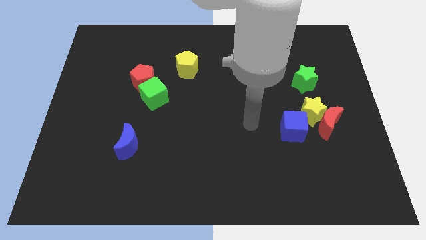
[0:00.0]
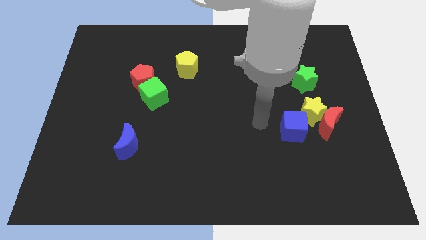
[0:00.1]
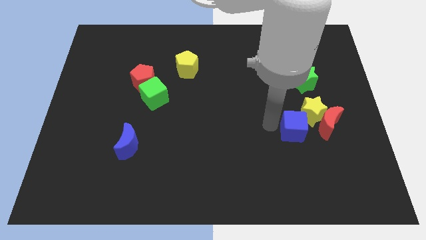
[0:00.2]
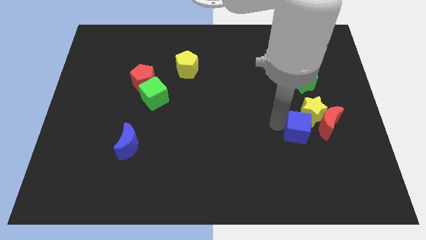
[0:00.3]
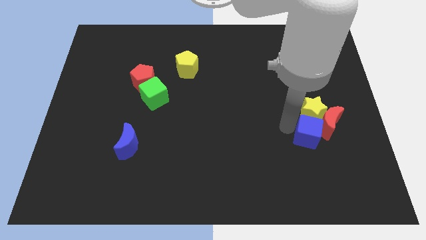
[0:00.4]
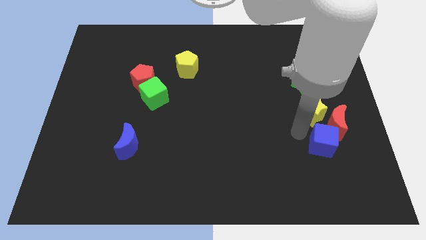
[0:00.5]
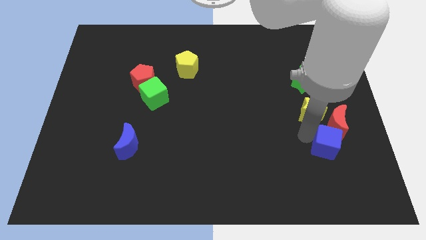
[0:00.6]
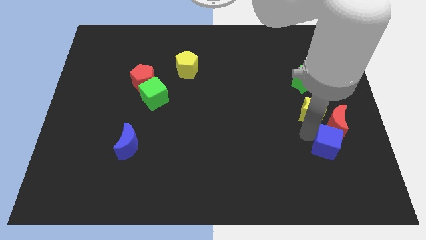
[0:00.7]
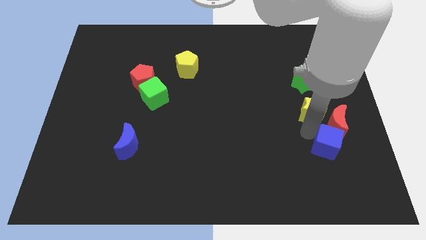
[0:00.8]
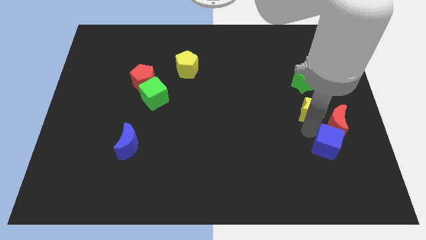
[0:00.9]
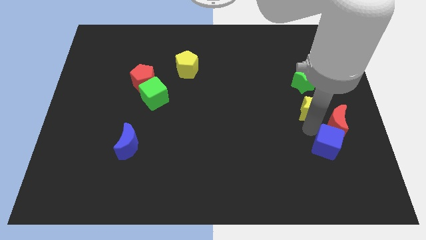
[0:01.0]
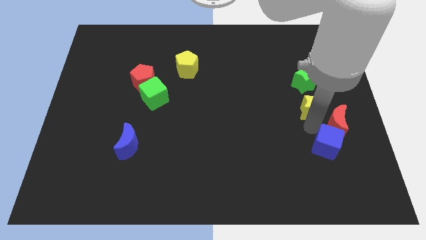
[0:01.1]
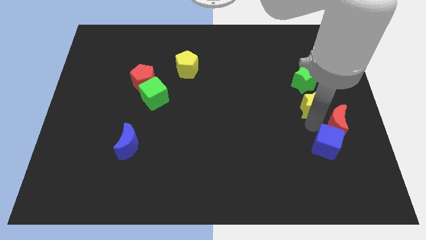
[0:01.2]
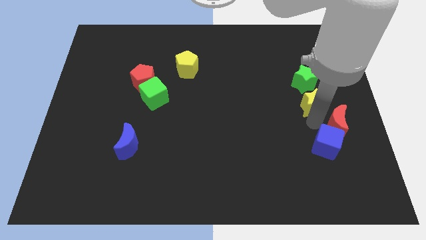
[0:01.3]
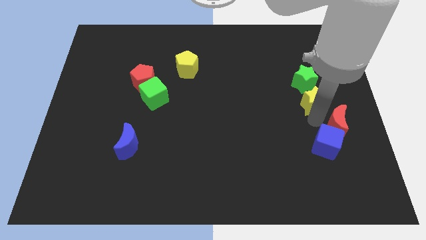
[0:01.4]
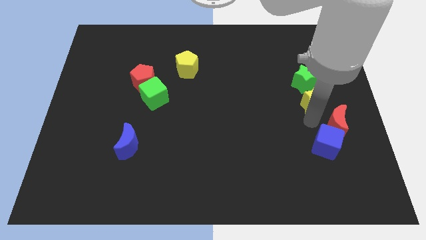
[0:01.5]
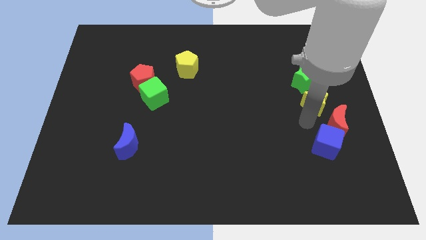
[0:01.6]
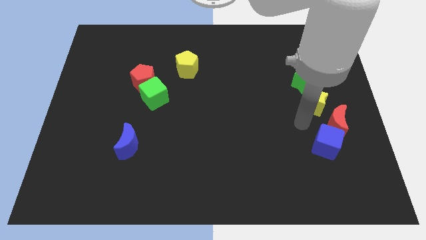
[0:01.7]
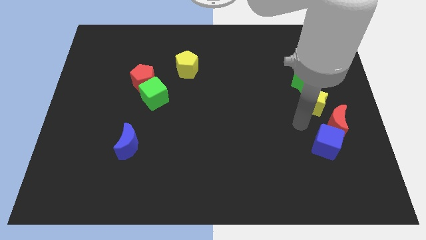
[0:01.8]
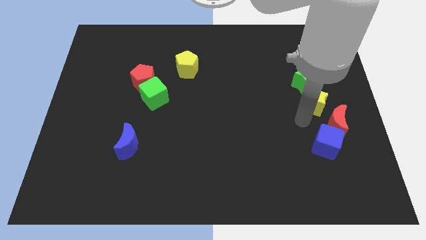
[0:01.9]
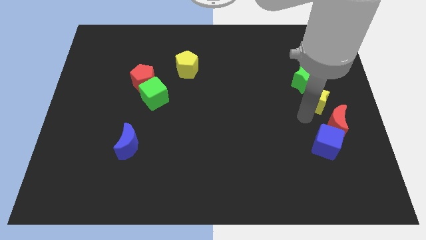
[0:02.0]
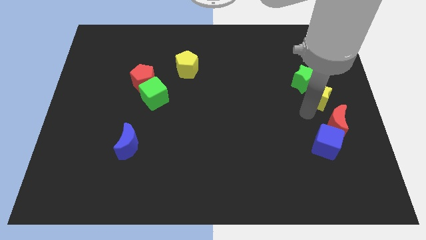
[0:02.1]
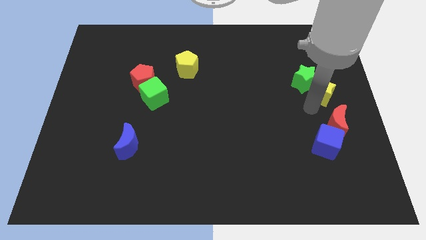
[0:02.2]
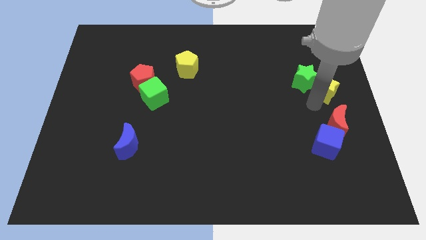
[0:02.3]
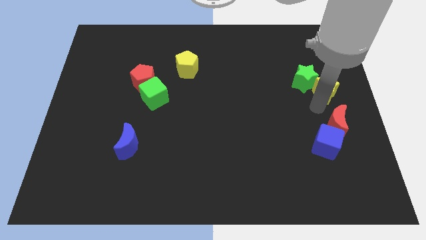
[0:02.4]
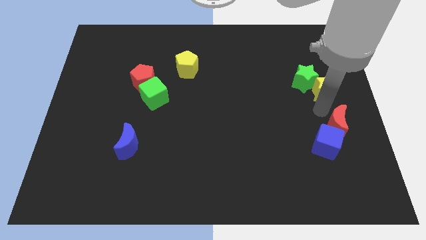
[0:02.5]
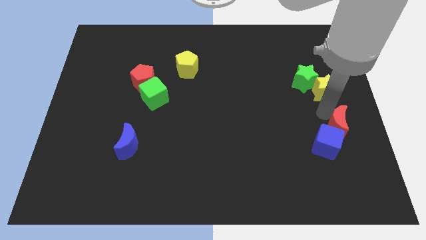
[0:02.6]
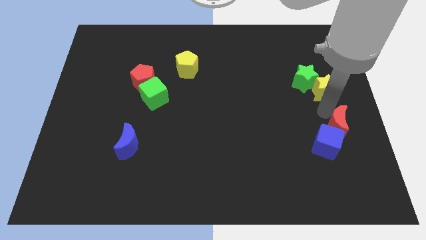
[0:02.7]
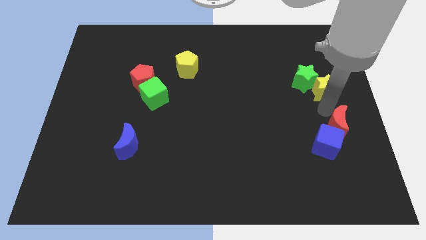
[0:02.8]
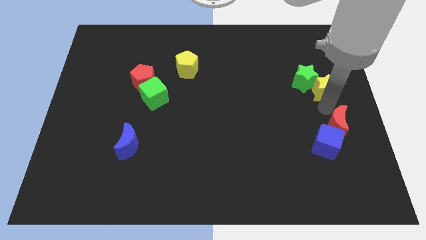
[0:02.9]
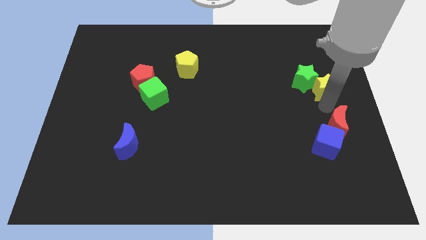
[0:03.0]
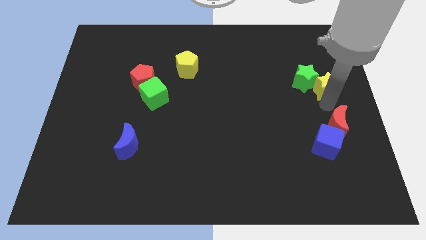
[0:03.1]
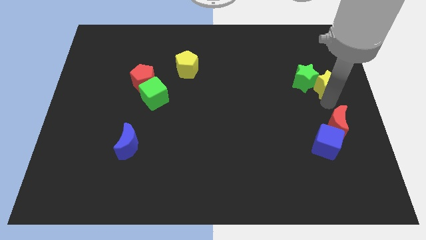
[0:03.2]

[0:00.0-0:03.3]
slide the yellow star up a little bit

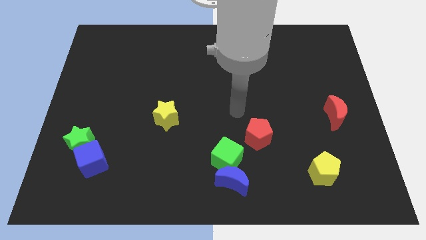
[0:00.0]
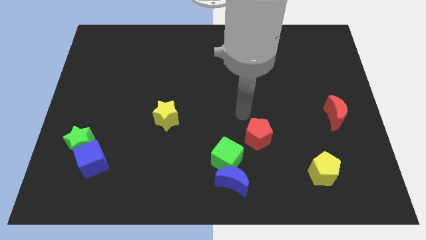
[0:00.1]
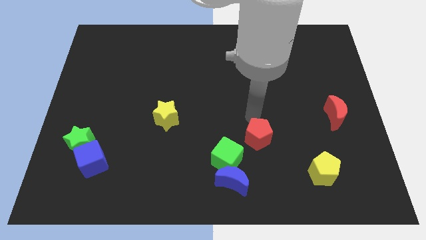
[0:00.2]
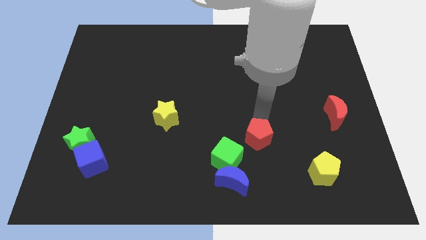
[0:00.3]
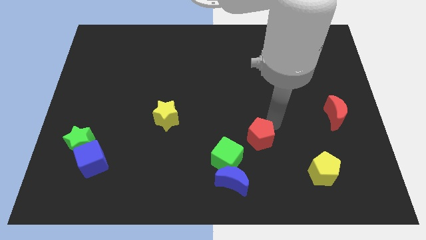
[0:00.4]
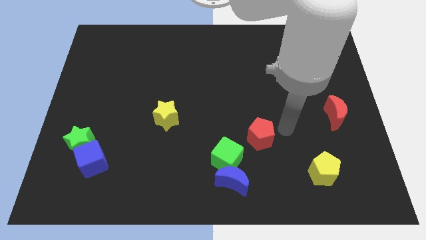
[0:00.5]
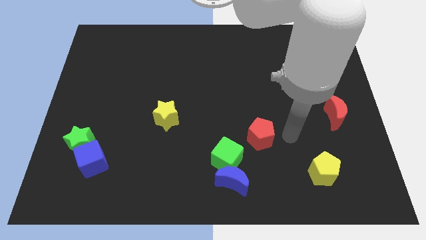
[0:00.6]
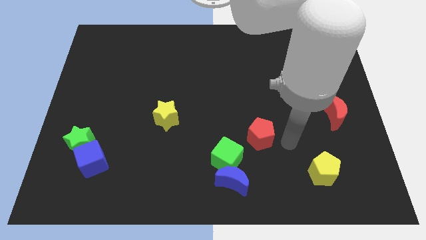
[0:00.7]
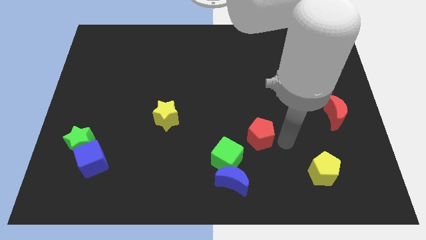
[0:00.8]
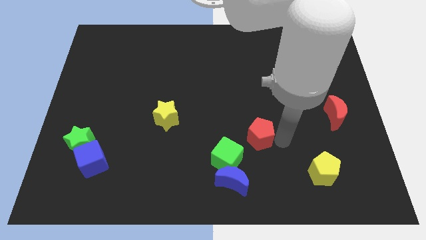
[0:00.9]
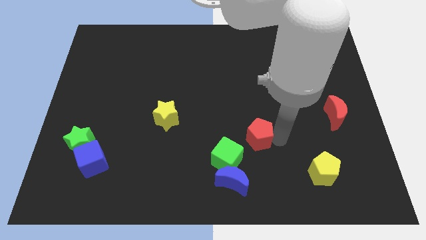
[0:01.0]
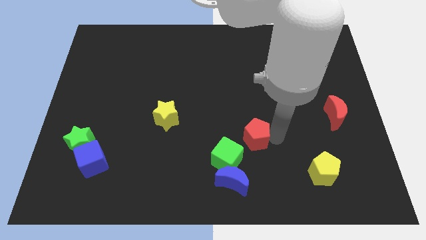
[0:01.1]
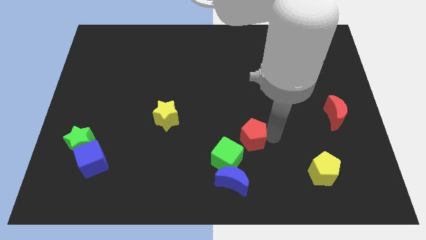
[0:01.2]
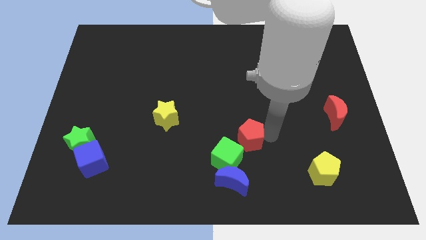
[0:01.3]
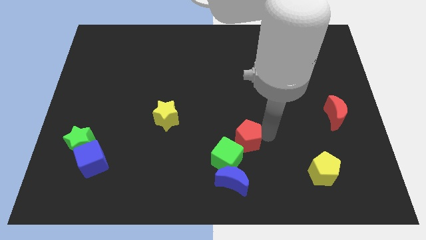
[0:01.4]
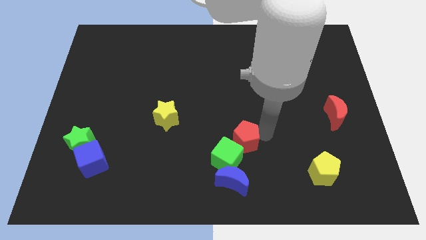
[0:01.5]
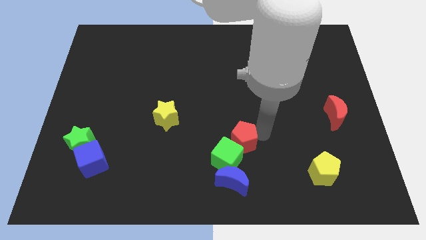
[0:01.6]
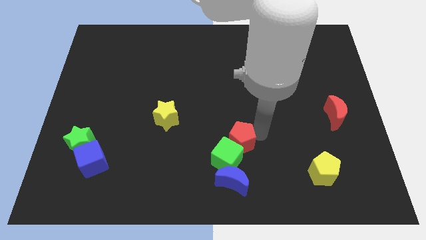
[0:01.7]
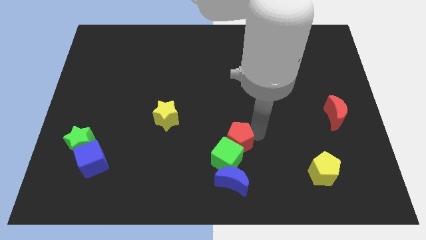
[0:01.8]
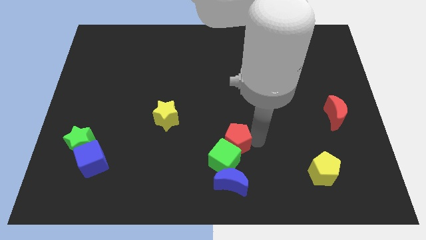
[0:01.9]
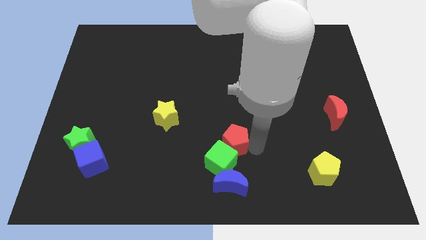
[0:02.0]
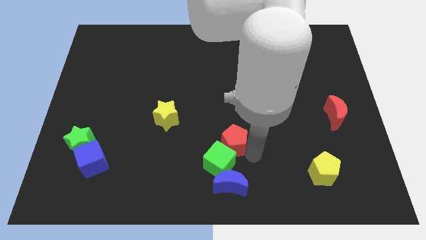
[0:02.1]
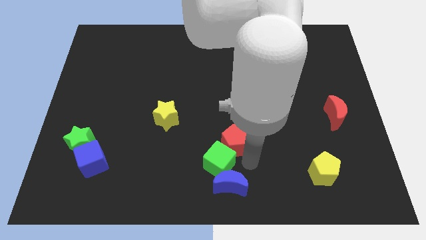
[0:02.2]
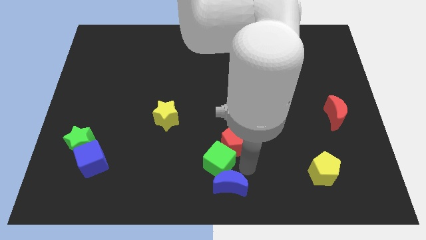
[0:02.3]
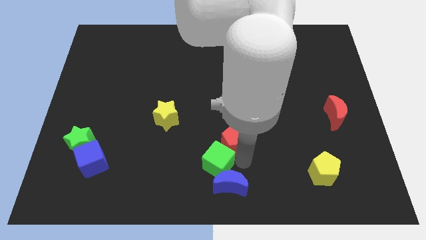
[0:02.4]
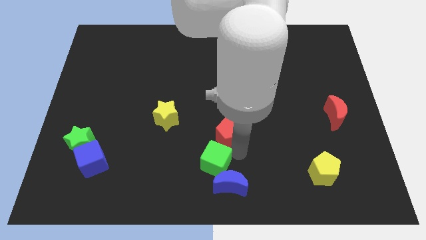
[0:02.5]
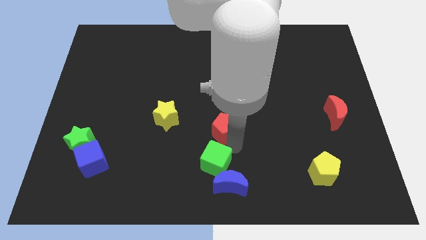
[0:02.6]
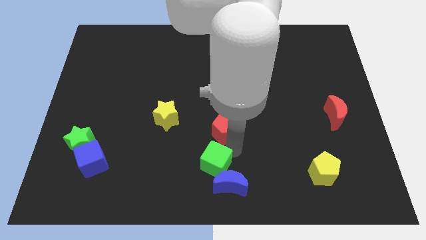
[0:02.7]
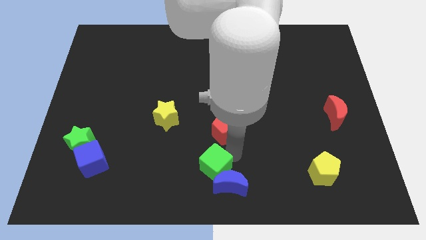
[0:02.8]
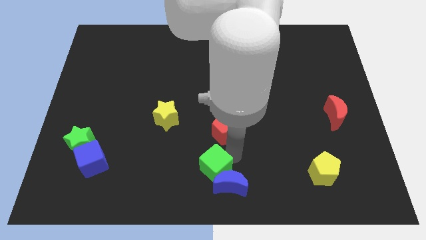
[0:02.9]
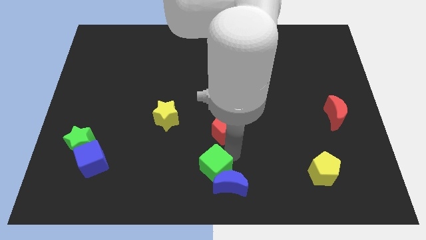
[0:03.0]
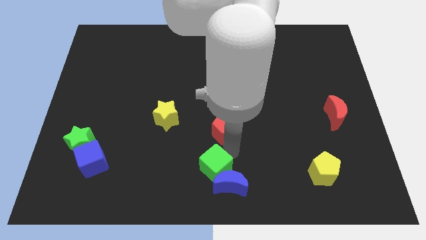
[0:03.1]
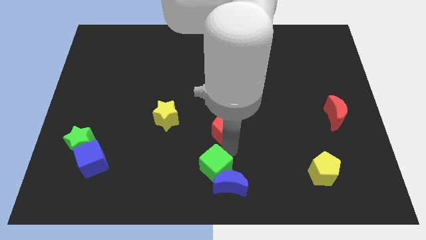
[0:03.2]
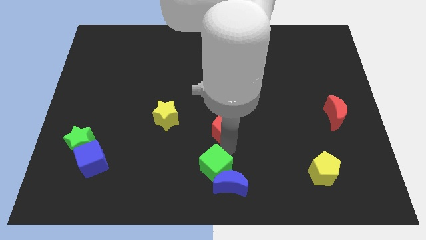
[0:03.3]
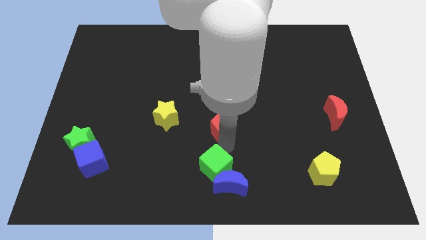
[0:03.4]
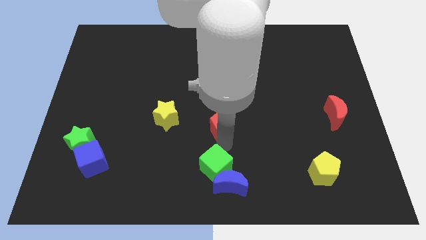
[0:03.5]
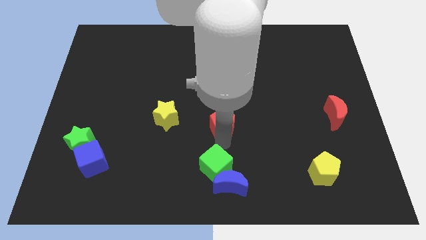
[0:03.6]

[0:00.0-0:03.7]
slide the red pentagon up and left diagonally a little

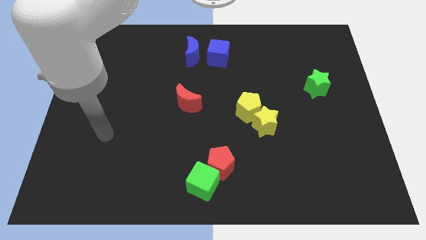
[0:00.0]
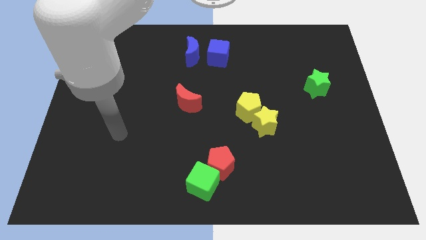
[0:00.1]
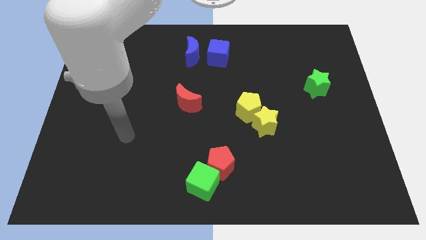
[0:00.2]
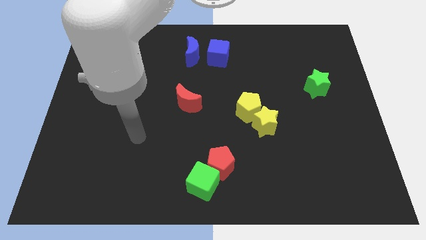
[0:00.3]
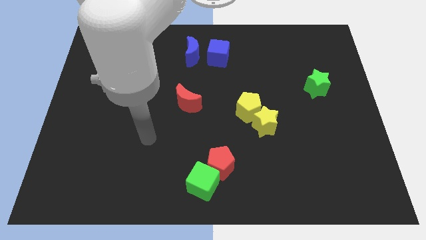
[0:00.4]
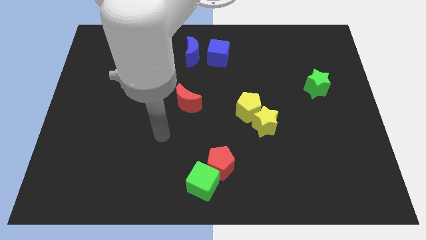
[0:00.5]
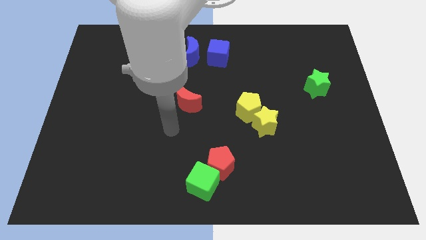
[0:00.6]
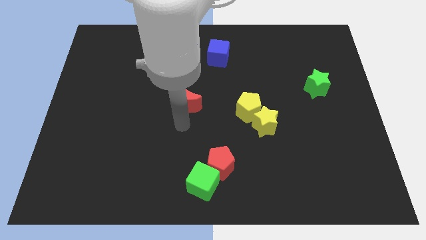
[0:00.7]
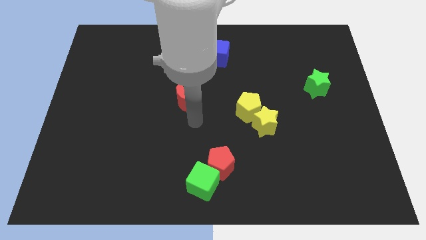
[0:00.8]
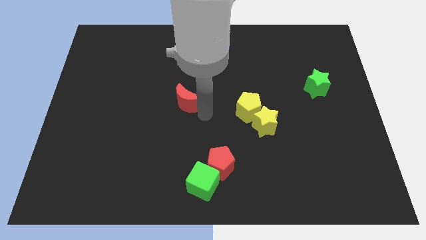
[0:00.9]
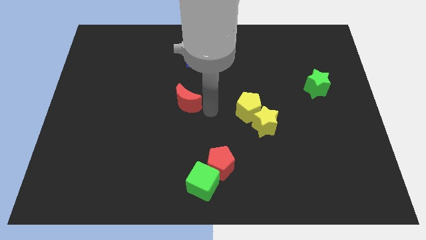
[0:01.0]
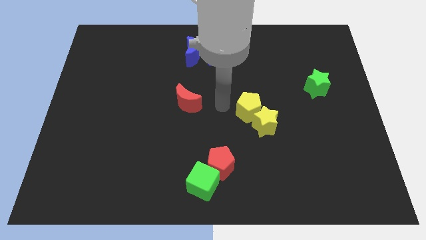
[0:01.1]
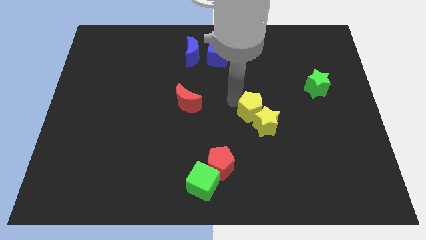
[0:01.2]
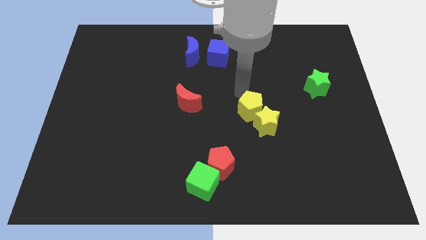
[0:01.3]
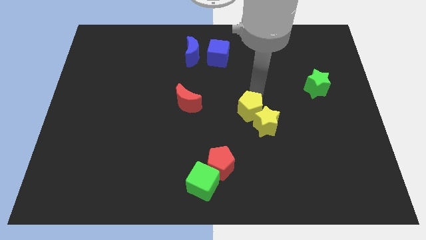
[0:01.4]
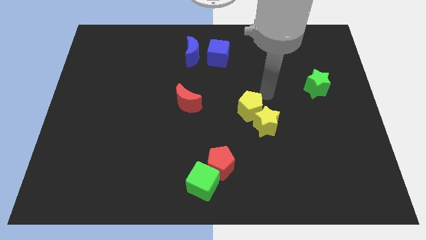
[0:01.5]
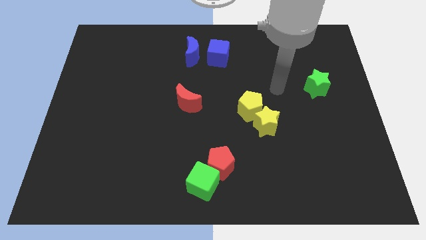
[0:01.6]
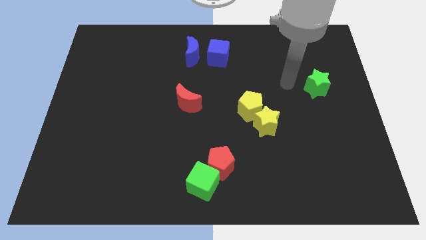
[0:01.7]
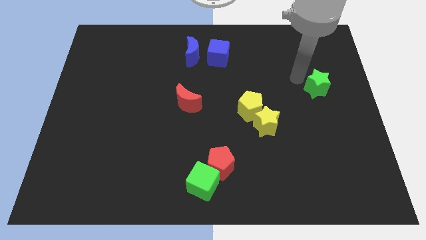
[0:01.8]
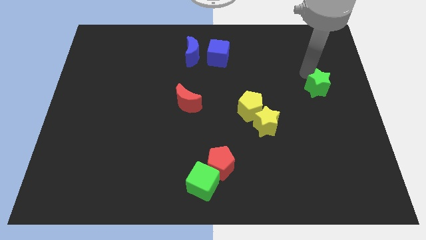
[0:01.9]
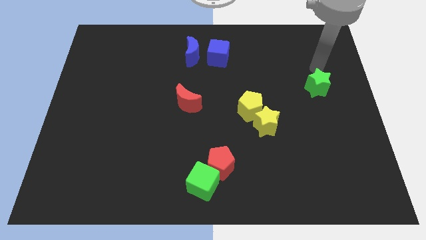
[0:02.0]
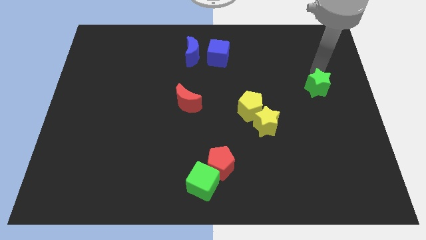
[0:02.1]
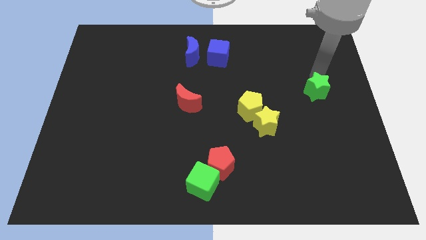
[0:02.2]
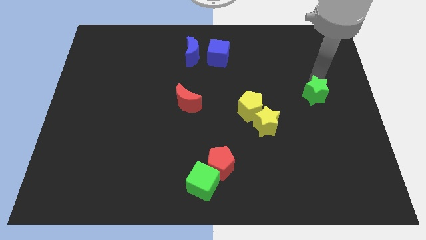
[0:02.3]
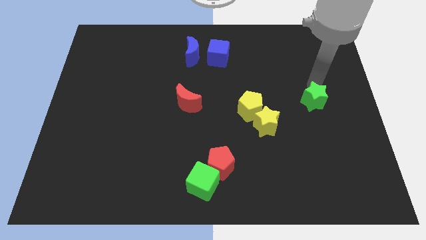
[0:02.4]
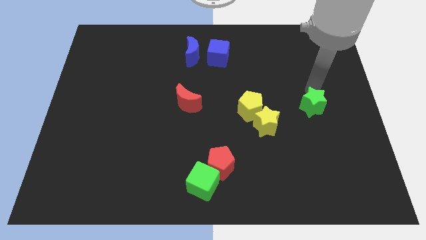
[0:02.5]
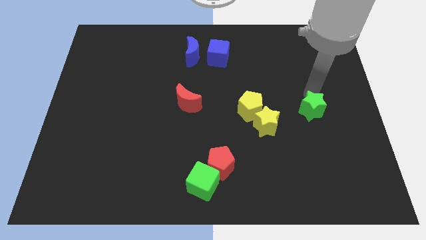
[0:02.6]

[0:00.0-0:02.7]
move the green star down a little
